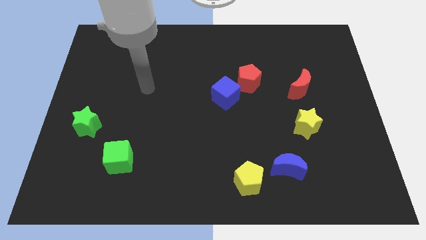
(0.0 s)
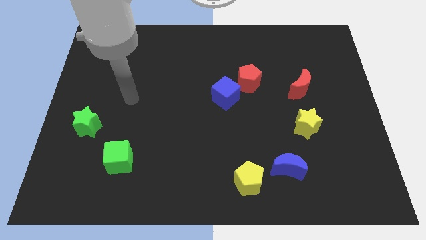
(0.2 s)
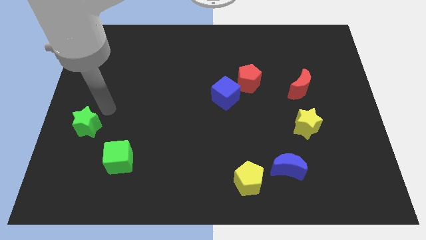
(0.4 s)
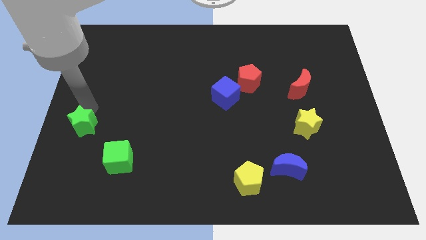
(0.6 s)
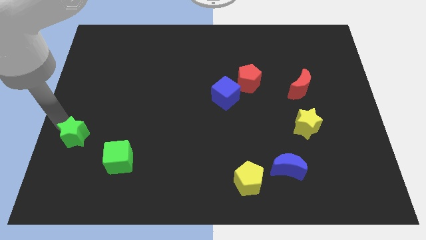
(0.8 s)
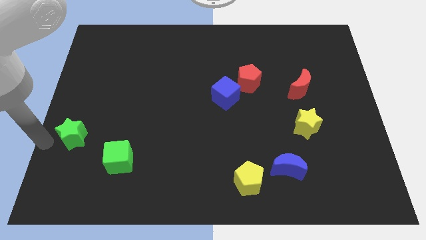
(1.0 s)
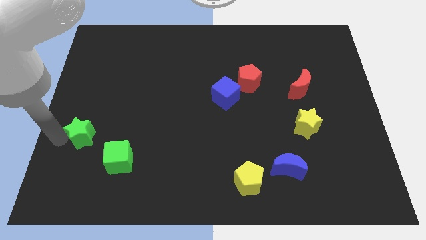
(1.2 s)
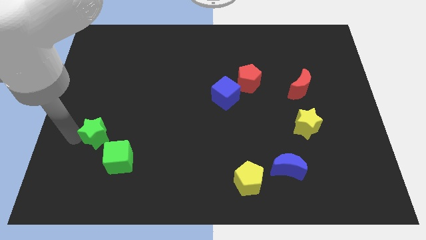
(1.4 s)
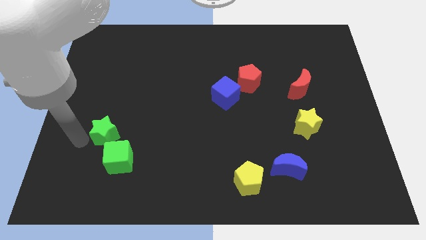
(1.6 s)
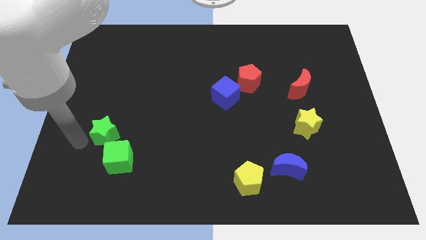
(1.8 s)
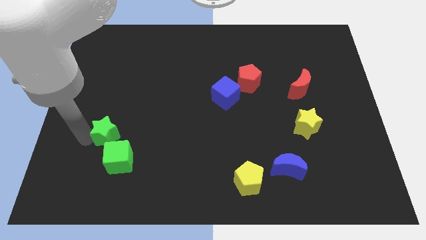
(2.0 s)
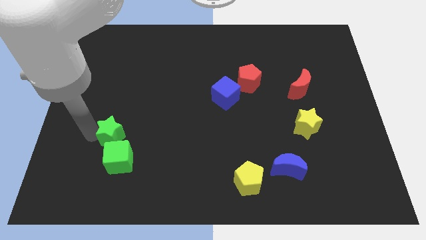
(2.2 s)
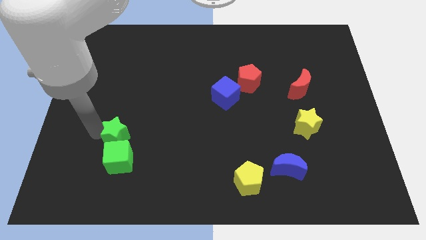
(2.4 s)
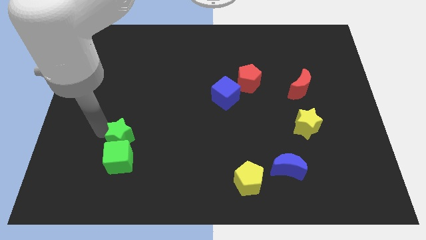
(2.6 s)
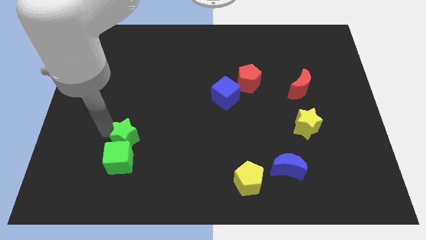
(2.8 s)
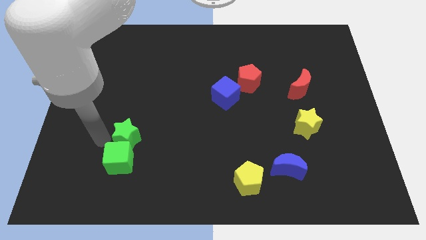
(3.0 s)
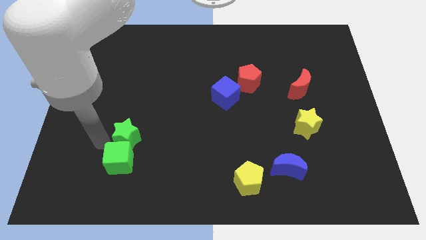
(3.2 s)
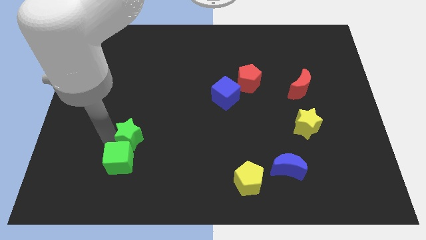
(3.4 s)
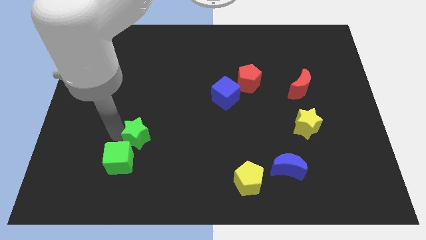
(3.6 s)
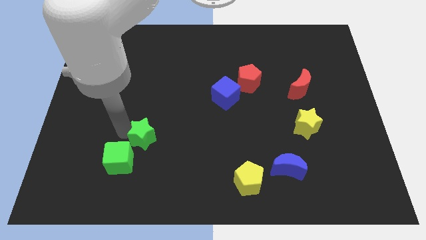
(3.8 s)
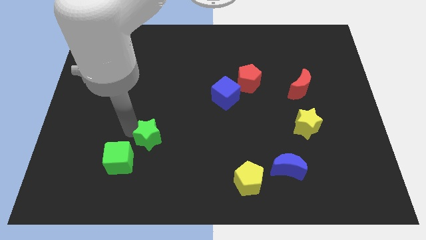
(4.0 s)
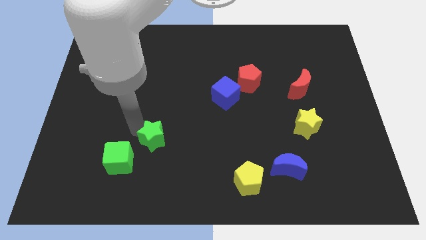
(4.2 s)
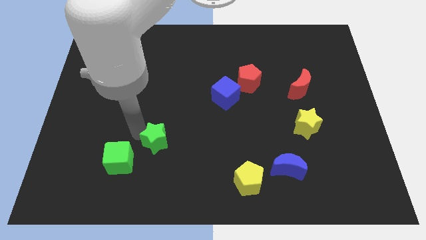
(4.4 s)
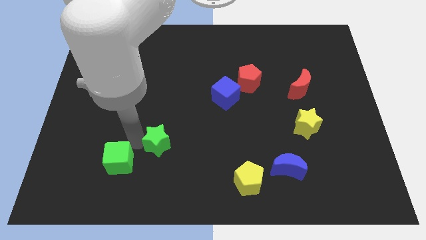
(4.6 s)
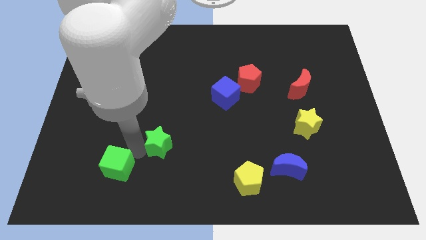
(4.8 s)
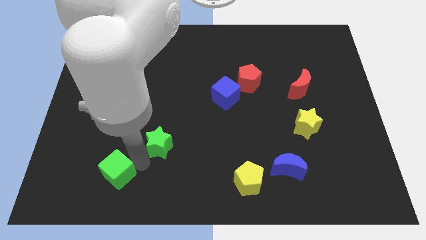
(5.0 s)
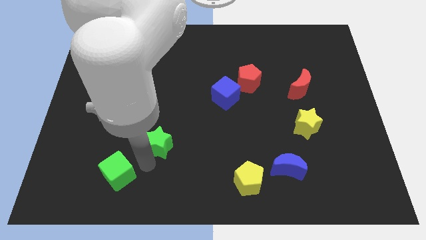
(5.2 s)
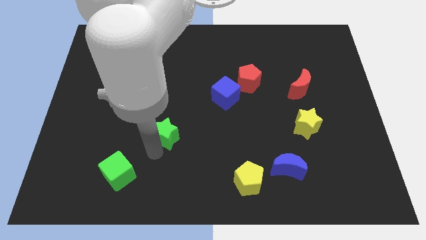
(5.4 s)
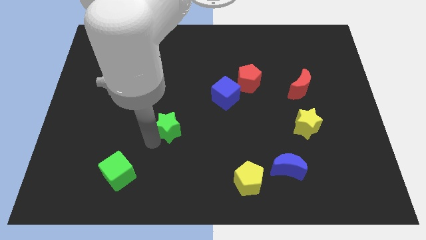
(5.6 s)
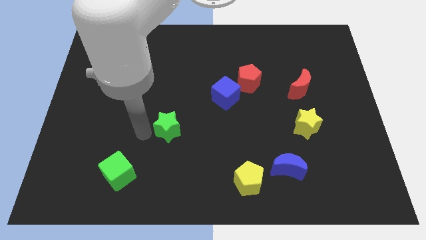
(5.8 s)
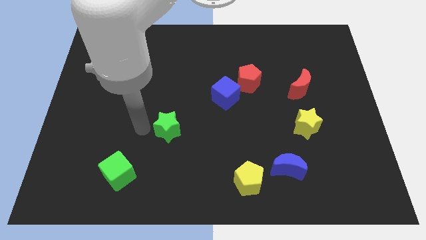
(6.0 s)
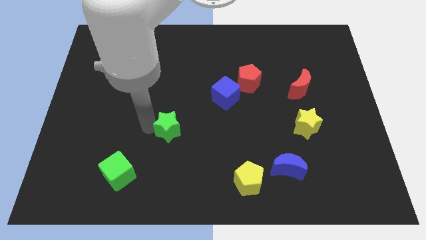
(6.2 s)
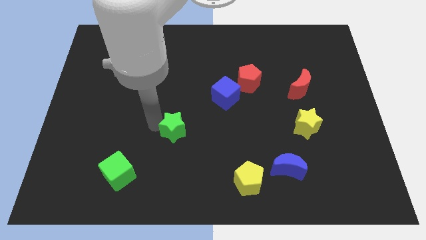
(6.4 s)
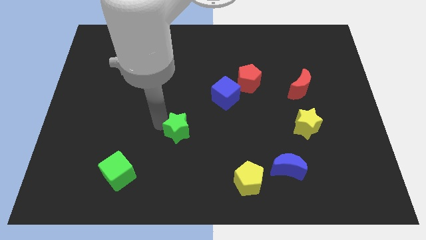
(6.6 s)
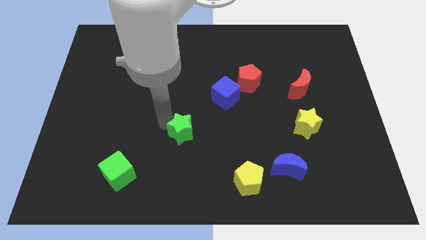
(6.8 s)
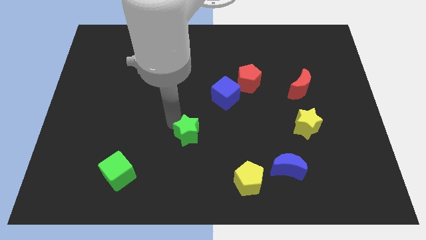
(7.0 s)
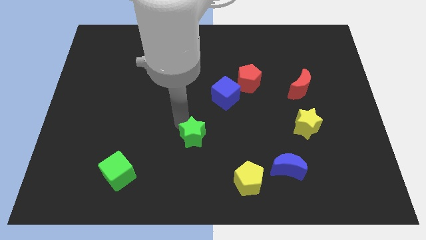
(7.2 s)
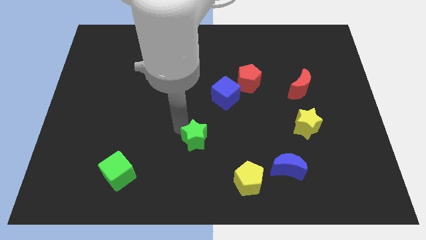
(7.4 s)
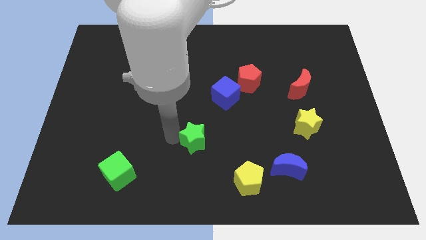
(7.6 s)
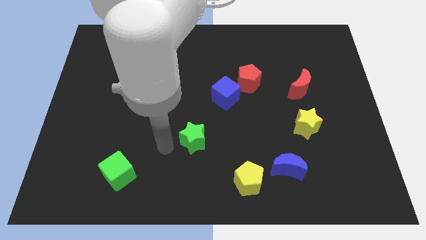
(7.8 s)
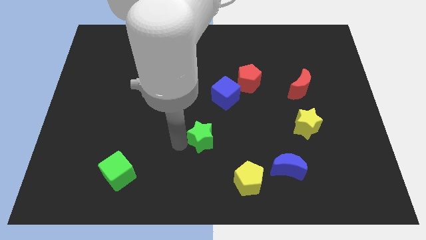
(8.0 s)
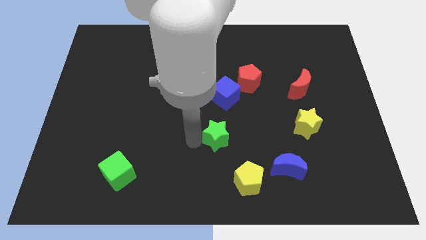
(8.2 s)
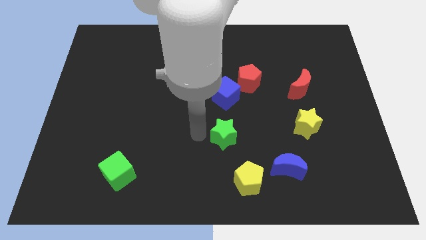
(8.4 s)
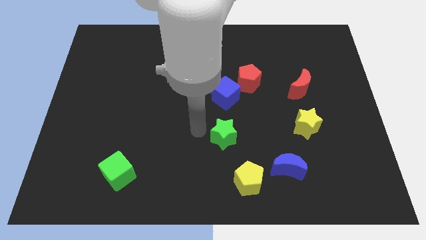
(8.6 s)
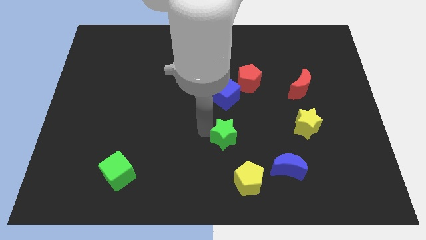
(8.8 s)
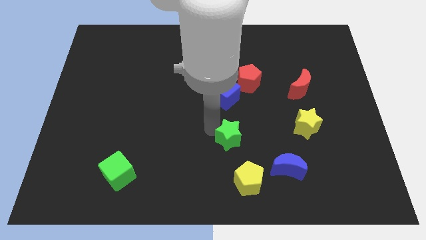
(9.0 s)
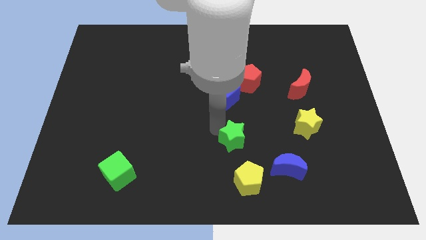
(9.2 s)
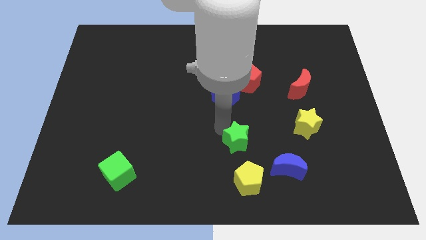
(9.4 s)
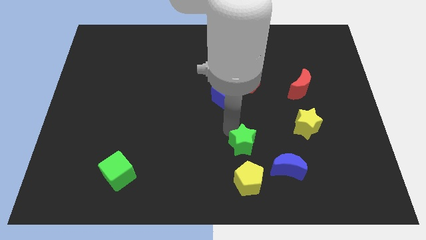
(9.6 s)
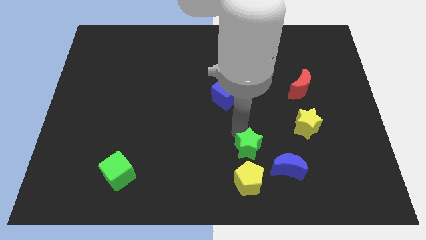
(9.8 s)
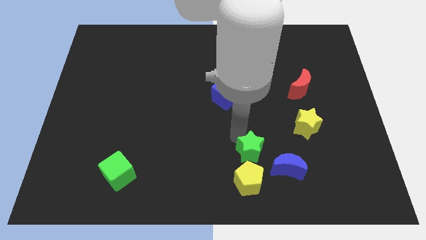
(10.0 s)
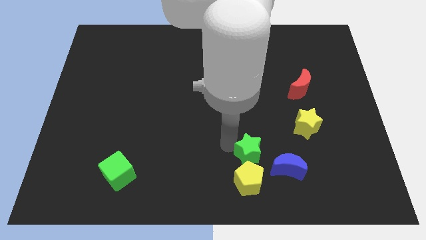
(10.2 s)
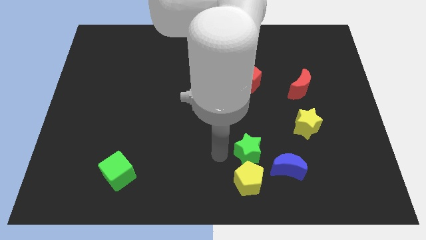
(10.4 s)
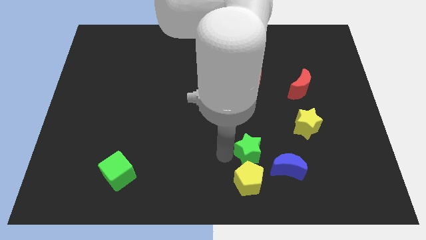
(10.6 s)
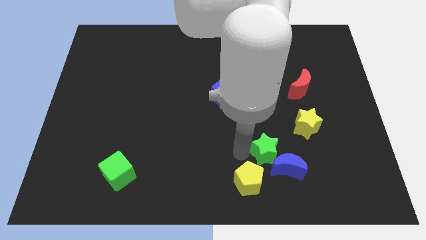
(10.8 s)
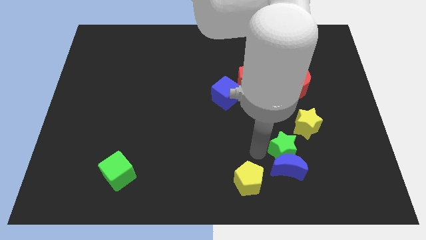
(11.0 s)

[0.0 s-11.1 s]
put the green star to the top right of the blue moon

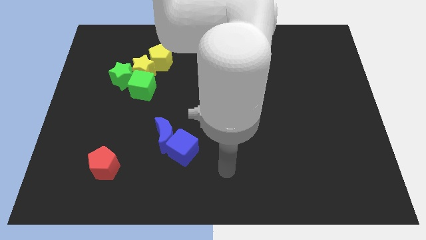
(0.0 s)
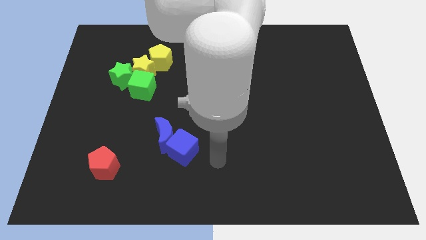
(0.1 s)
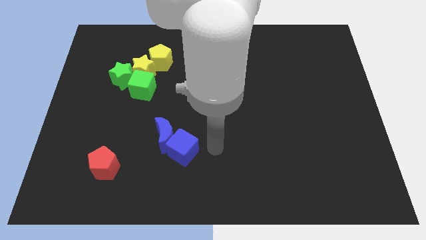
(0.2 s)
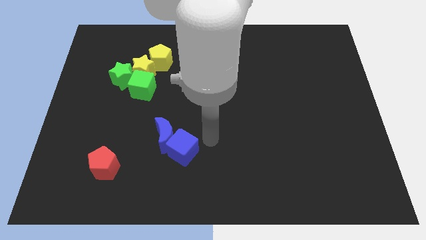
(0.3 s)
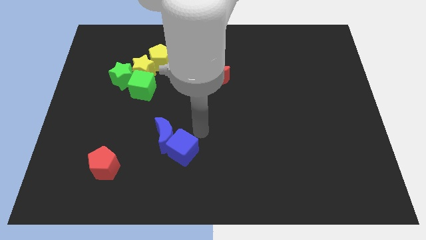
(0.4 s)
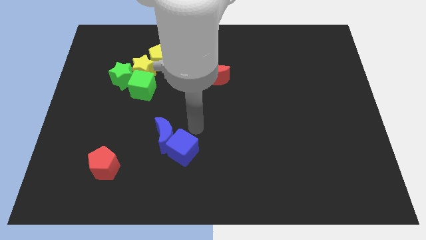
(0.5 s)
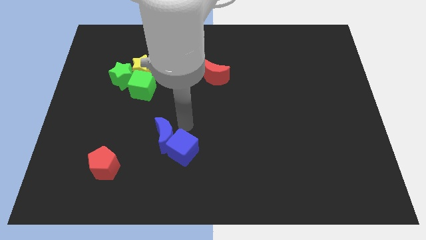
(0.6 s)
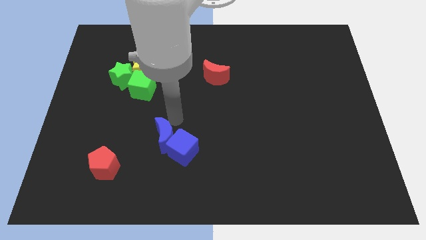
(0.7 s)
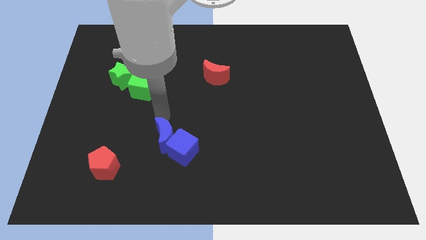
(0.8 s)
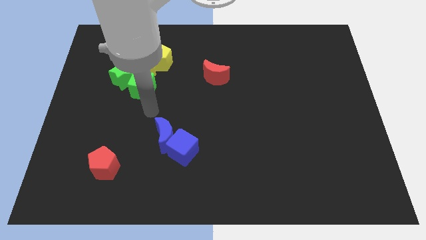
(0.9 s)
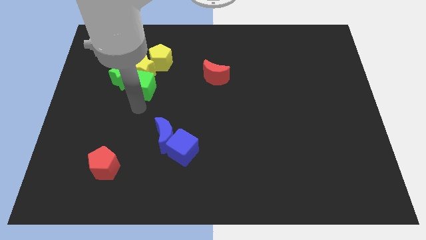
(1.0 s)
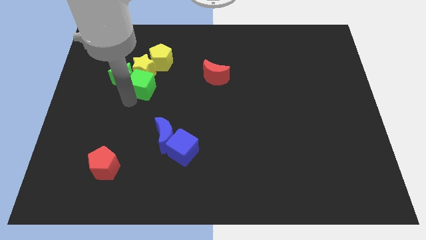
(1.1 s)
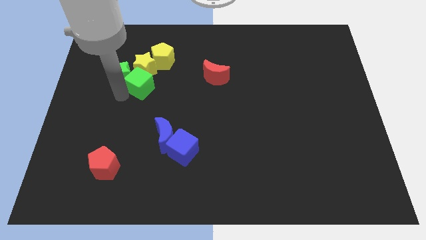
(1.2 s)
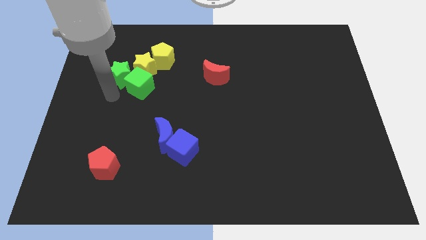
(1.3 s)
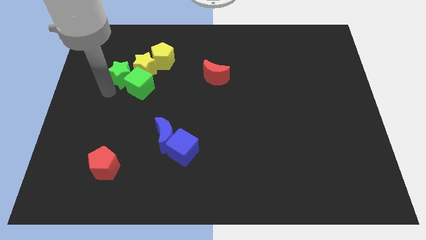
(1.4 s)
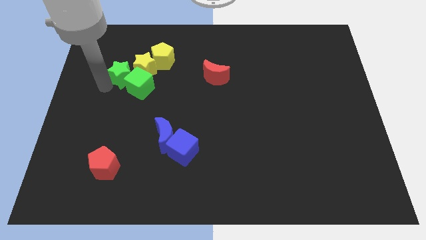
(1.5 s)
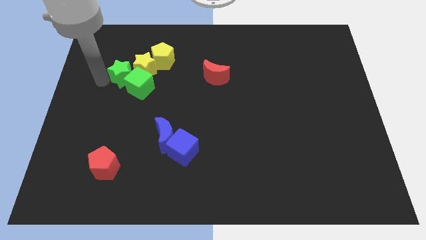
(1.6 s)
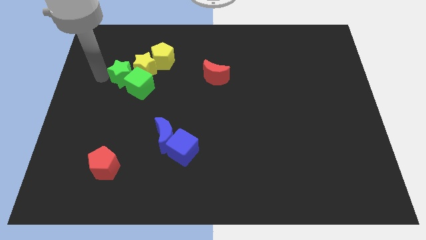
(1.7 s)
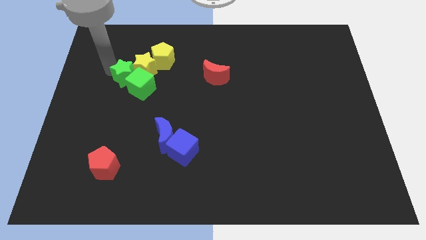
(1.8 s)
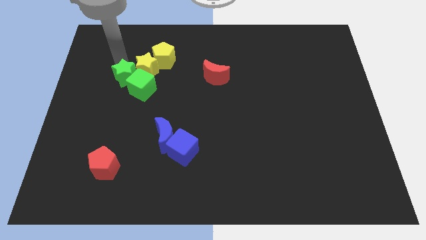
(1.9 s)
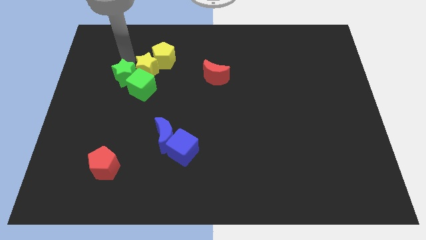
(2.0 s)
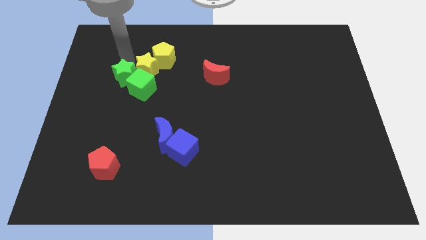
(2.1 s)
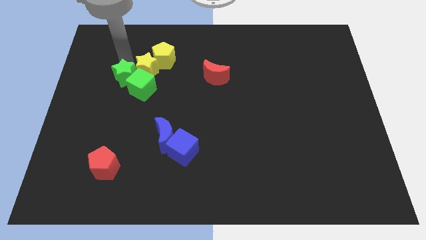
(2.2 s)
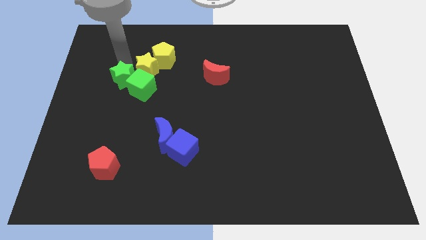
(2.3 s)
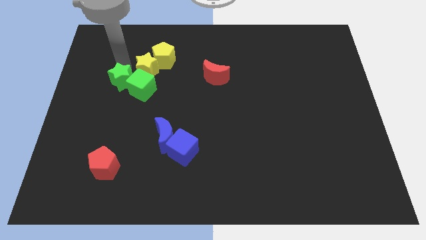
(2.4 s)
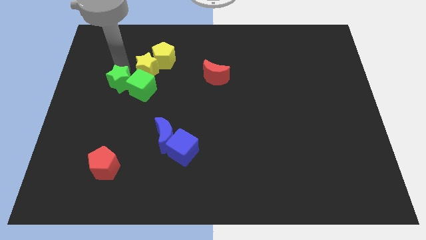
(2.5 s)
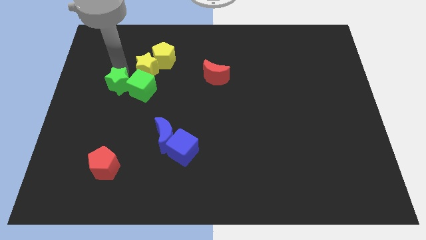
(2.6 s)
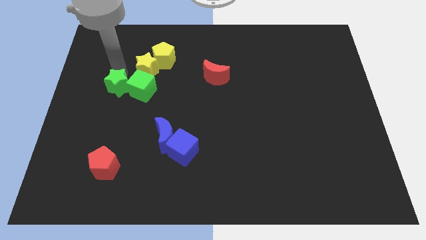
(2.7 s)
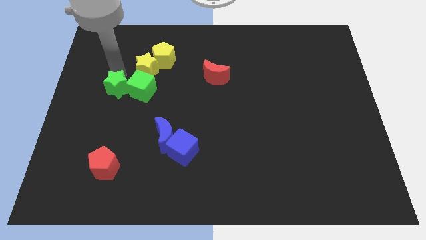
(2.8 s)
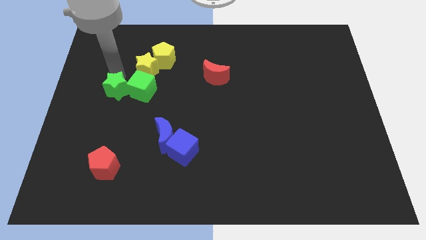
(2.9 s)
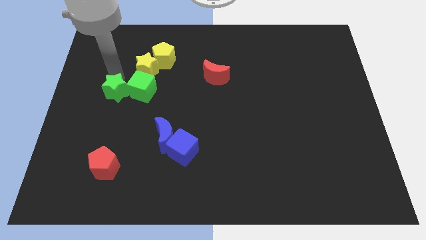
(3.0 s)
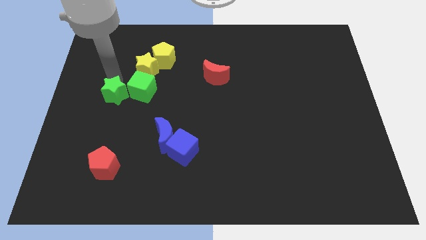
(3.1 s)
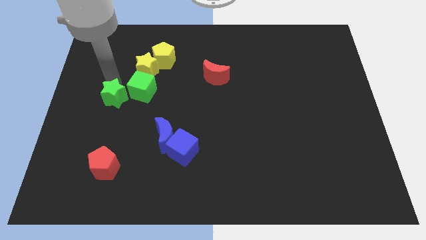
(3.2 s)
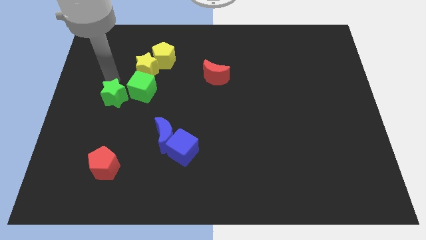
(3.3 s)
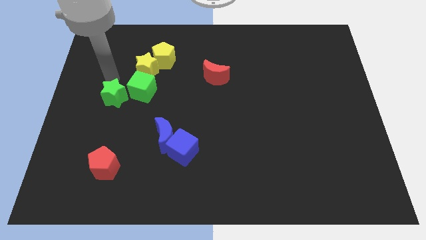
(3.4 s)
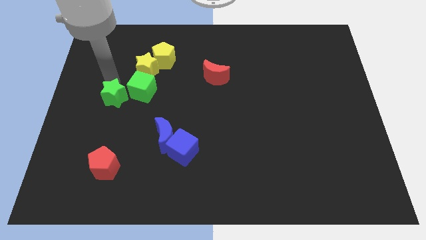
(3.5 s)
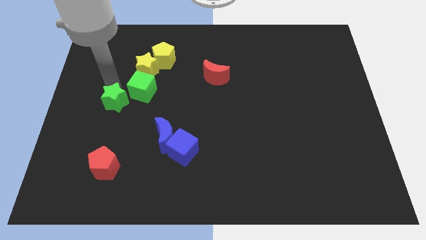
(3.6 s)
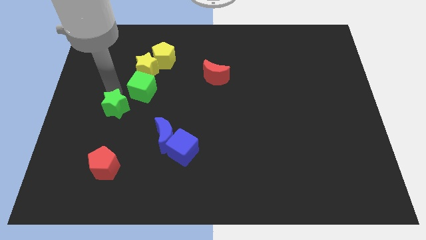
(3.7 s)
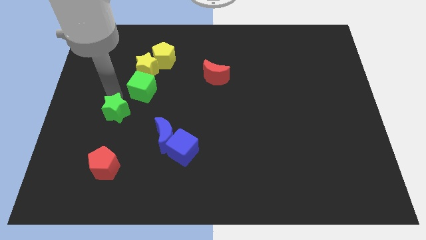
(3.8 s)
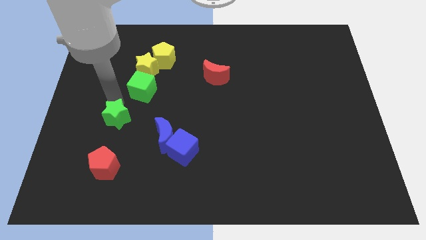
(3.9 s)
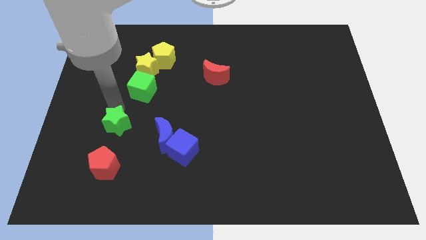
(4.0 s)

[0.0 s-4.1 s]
move the green star just left of the blue moon
